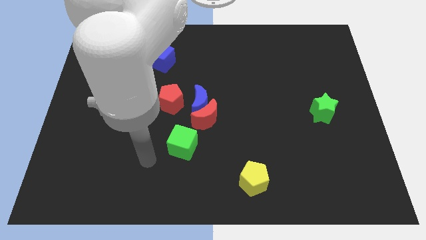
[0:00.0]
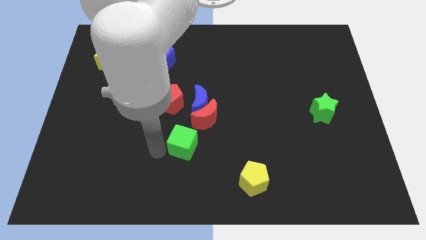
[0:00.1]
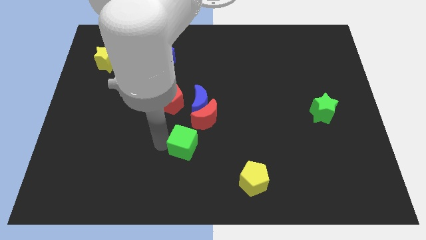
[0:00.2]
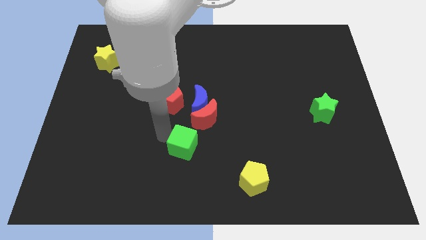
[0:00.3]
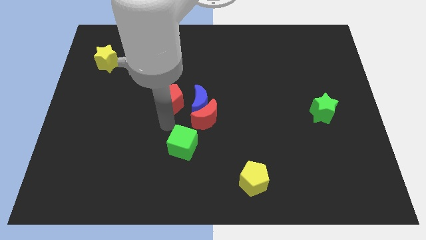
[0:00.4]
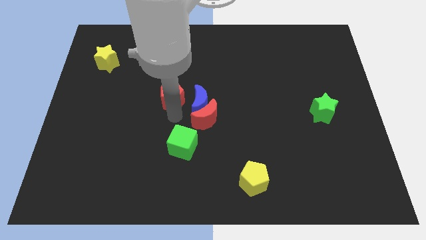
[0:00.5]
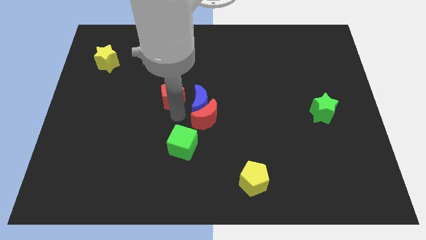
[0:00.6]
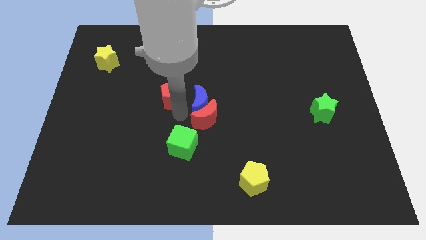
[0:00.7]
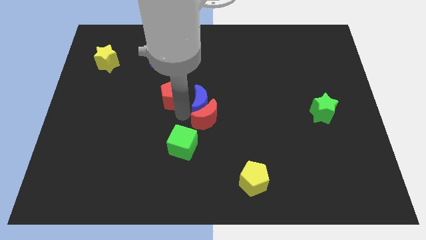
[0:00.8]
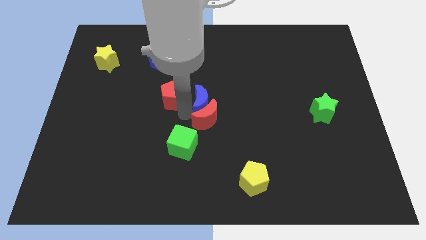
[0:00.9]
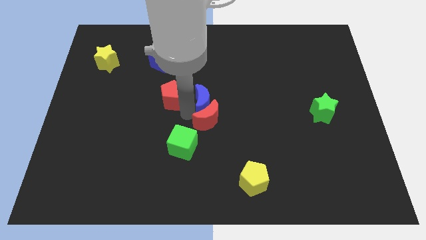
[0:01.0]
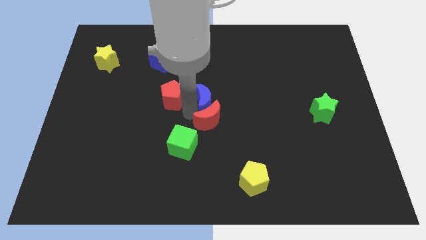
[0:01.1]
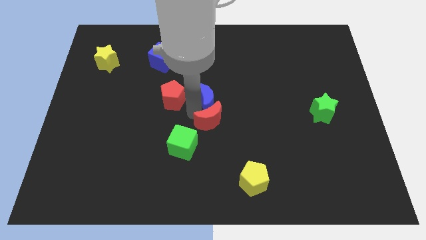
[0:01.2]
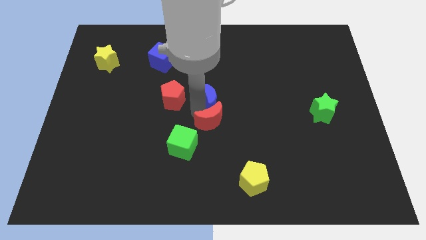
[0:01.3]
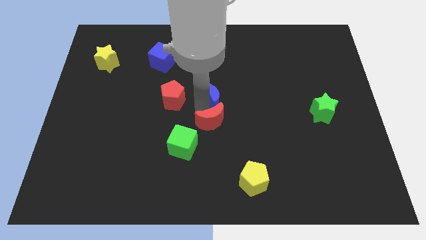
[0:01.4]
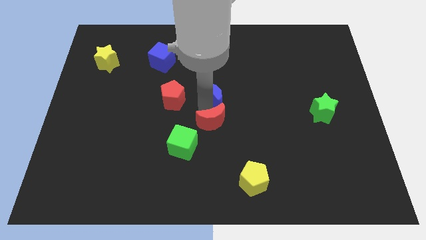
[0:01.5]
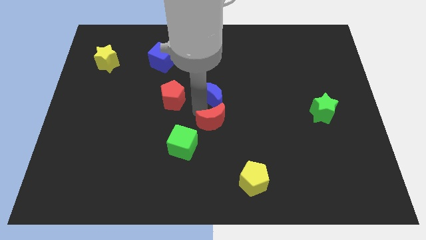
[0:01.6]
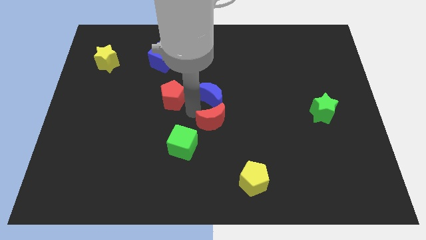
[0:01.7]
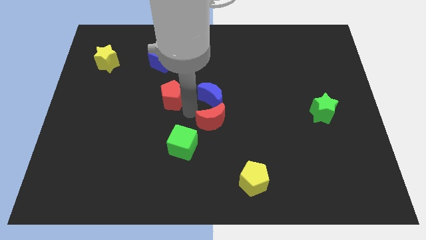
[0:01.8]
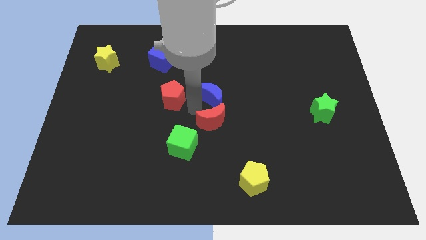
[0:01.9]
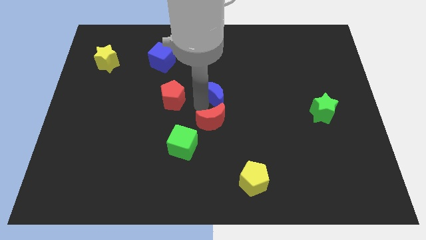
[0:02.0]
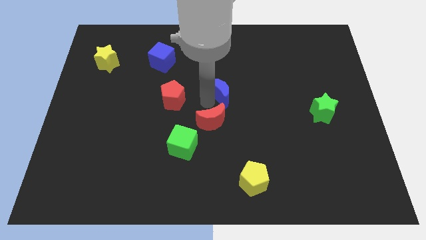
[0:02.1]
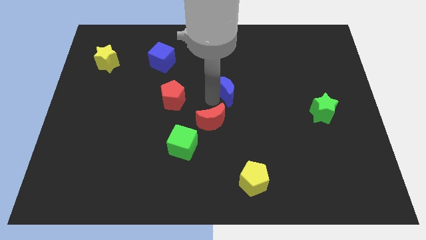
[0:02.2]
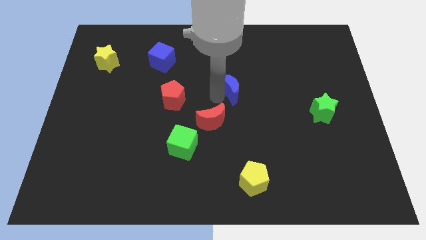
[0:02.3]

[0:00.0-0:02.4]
separate the blue moon from the red moon and red pentagon

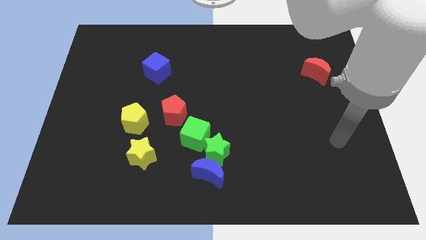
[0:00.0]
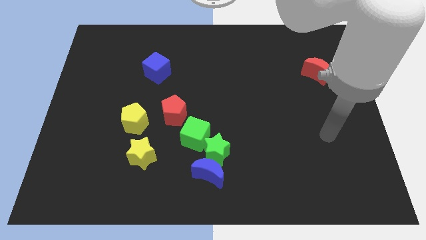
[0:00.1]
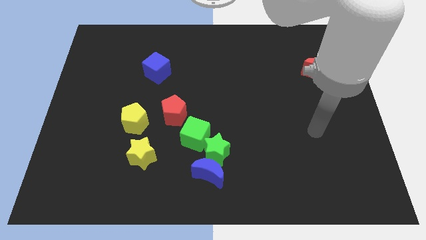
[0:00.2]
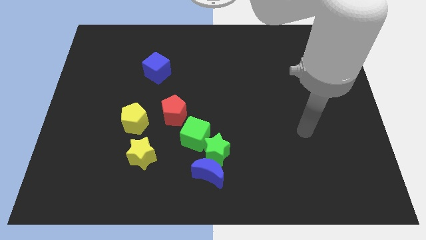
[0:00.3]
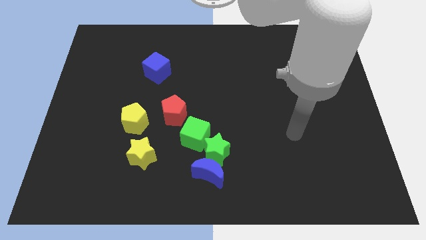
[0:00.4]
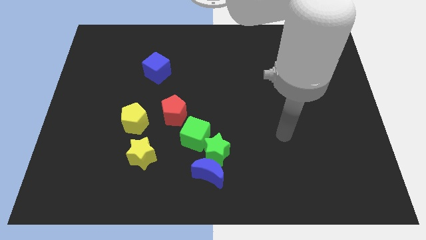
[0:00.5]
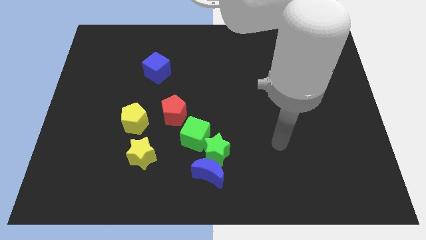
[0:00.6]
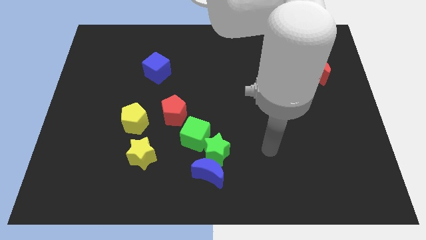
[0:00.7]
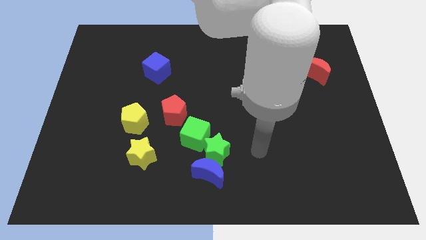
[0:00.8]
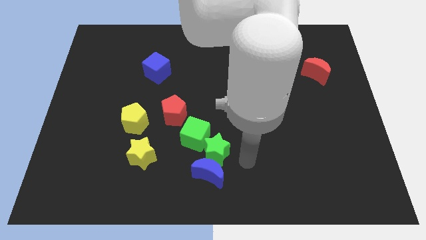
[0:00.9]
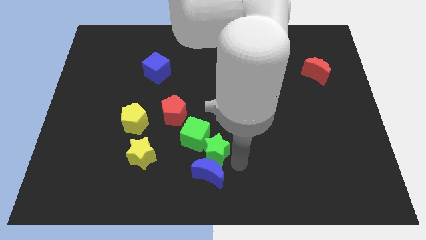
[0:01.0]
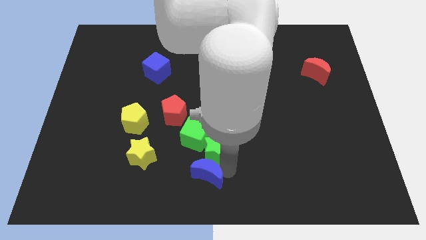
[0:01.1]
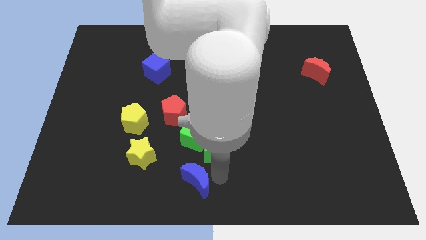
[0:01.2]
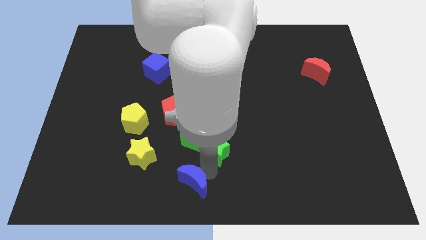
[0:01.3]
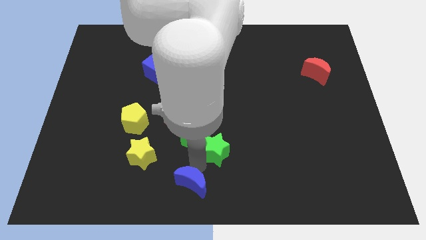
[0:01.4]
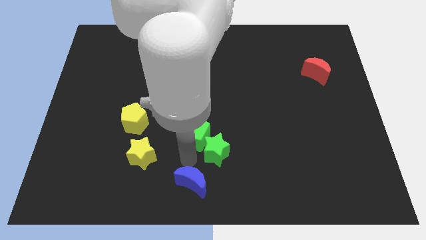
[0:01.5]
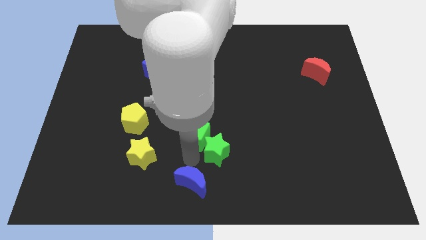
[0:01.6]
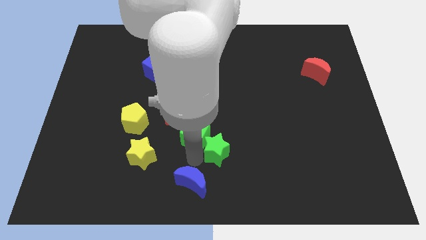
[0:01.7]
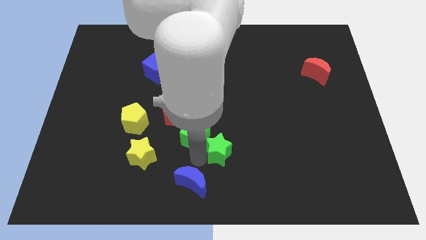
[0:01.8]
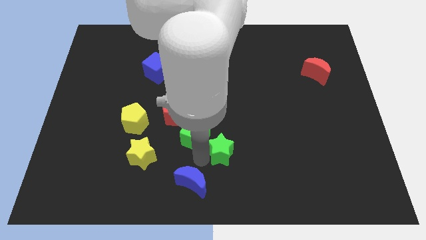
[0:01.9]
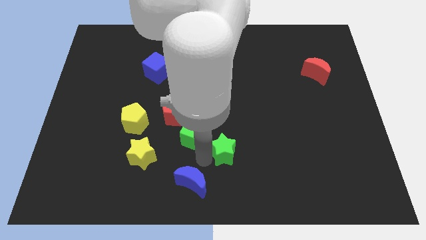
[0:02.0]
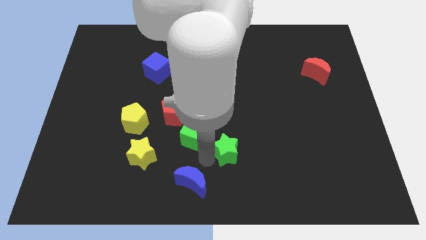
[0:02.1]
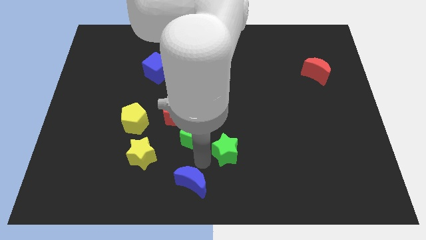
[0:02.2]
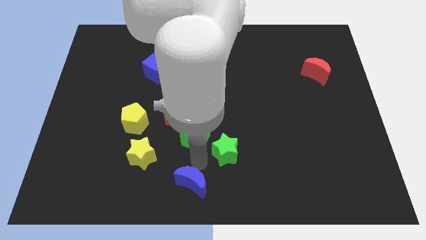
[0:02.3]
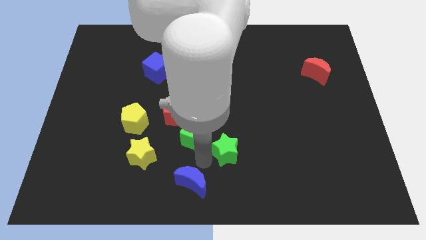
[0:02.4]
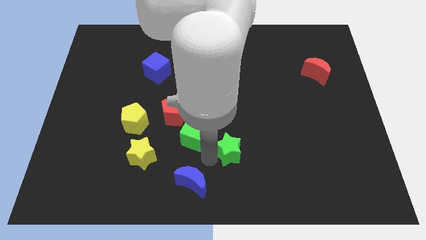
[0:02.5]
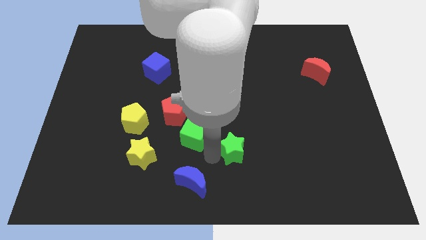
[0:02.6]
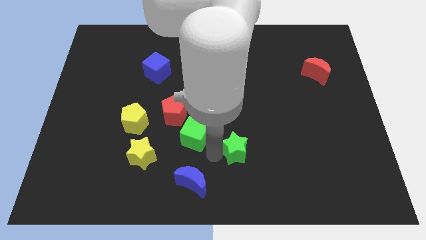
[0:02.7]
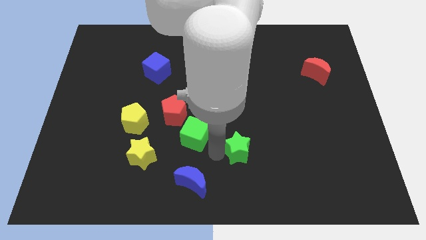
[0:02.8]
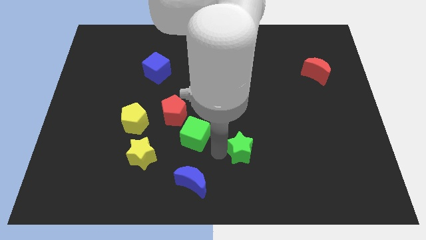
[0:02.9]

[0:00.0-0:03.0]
separate the green star from the blue moon and green cube

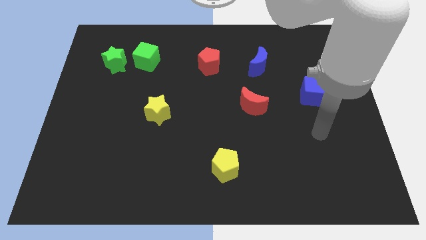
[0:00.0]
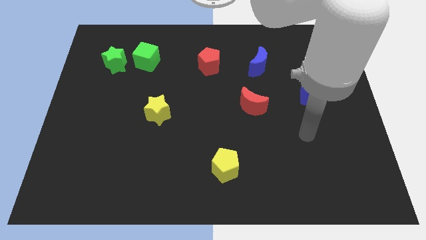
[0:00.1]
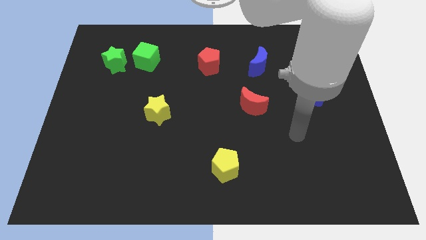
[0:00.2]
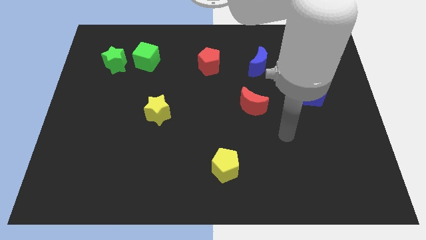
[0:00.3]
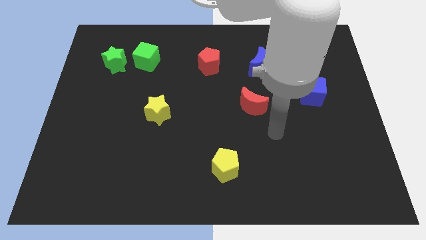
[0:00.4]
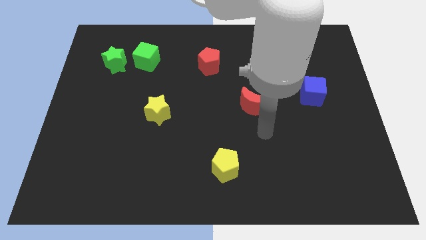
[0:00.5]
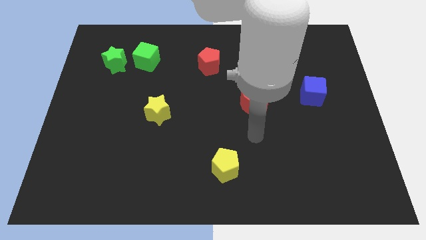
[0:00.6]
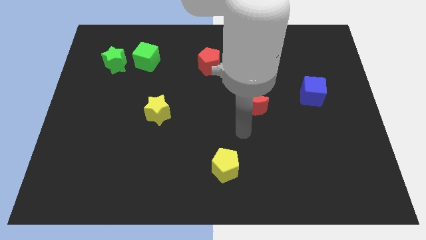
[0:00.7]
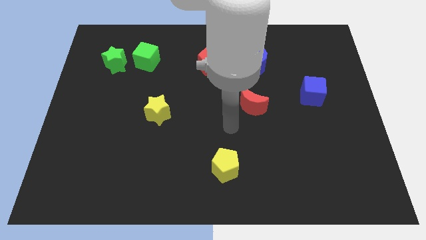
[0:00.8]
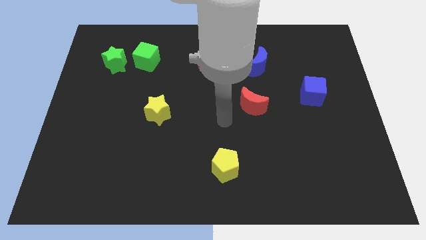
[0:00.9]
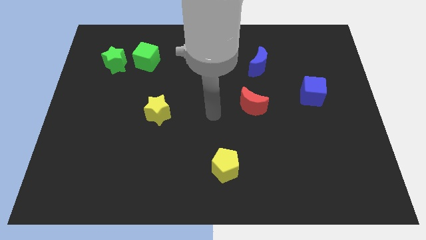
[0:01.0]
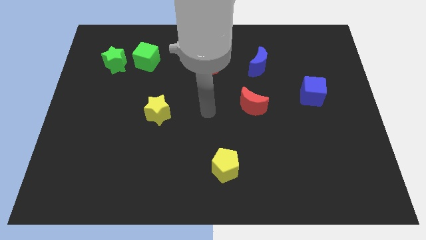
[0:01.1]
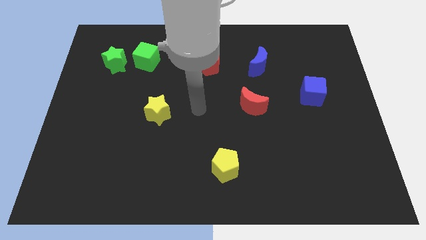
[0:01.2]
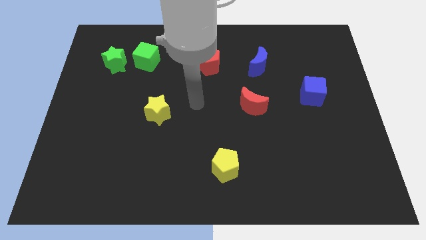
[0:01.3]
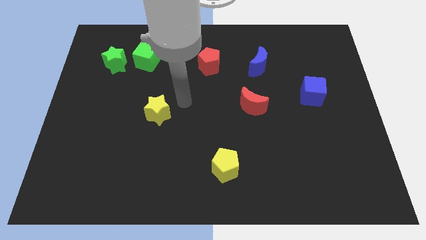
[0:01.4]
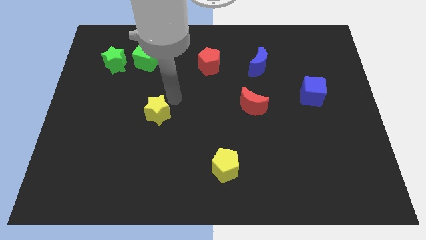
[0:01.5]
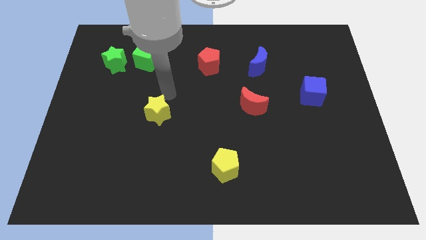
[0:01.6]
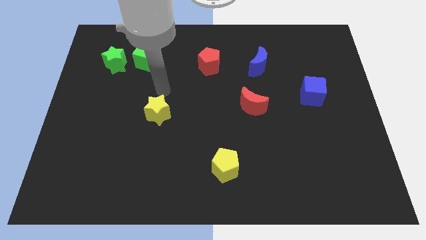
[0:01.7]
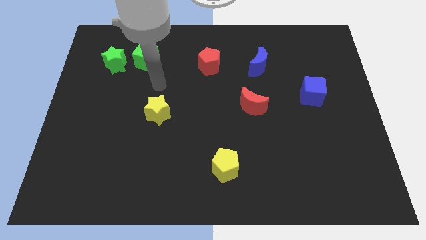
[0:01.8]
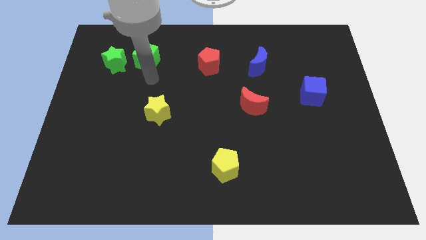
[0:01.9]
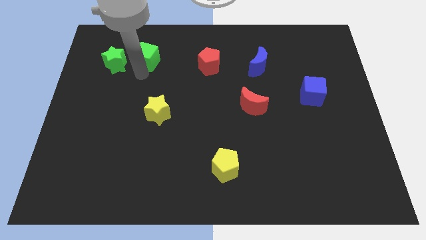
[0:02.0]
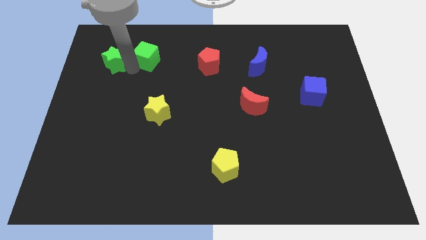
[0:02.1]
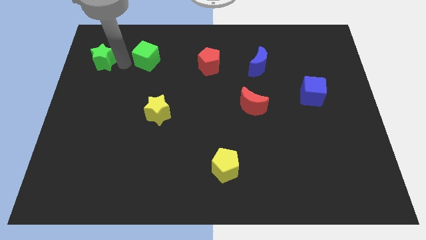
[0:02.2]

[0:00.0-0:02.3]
pull the green cube apart from the green star

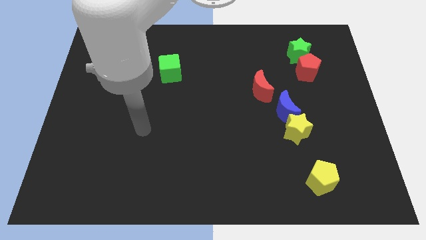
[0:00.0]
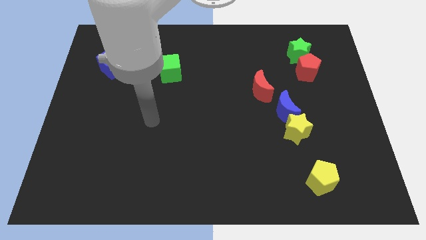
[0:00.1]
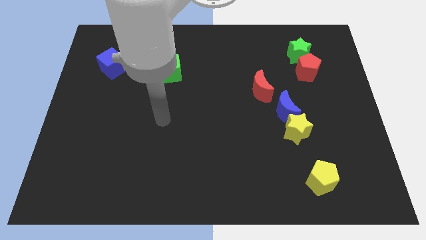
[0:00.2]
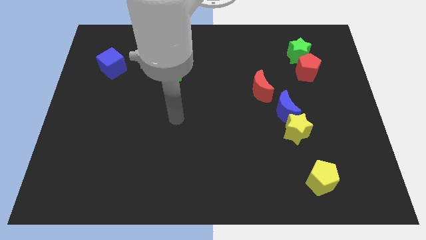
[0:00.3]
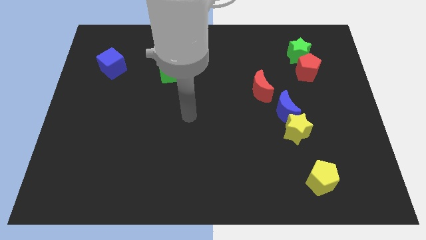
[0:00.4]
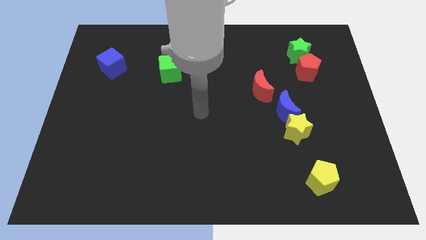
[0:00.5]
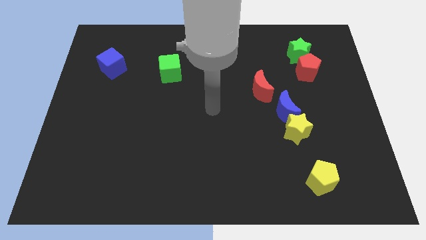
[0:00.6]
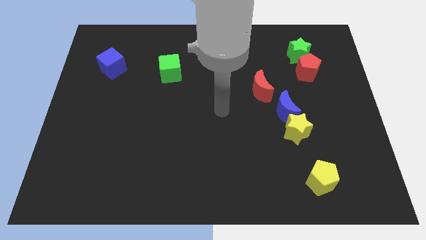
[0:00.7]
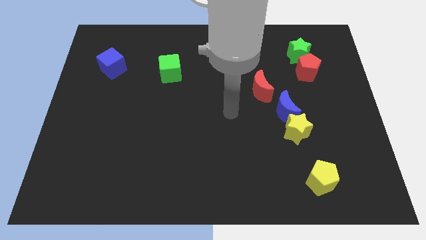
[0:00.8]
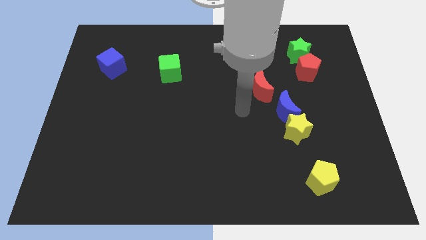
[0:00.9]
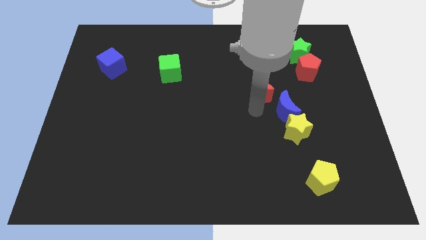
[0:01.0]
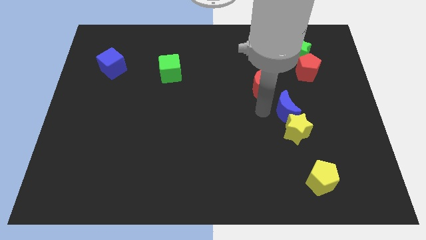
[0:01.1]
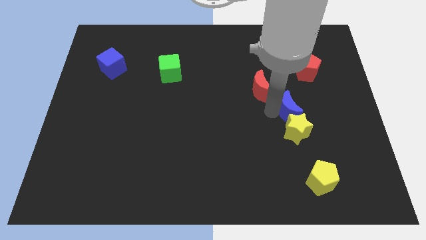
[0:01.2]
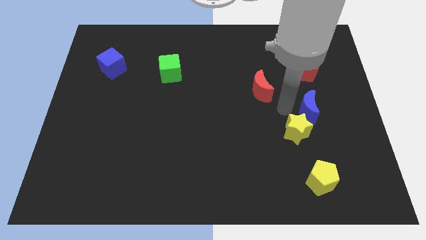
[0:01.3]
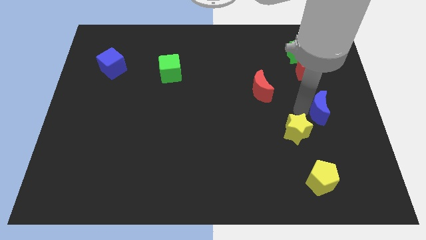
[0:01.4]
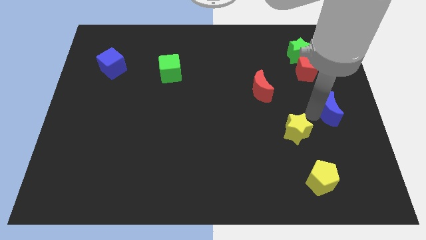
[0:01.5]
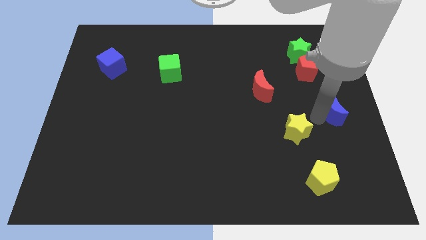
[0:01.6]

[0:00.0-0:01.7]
separate the yellow star from the blue moon
